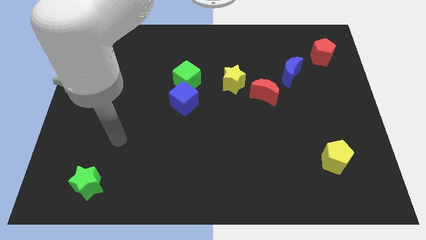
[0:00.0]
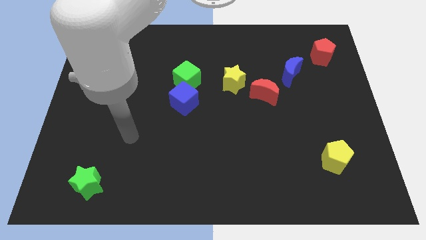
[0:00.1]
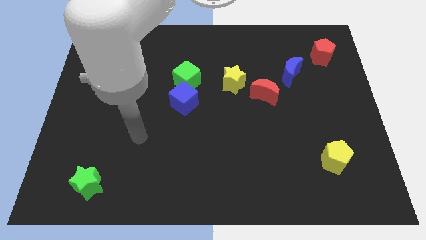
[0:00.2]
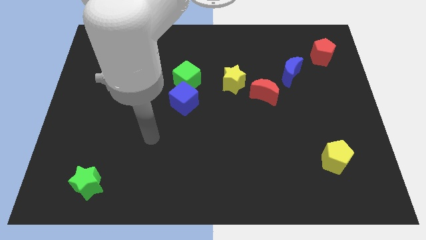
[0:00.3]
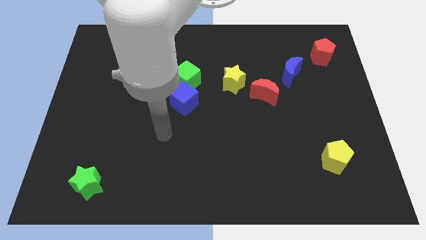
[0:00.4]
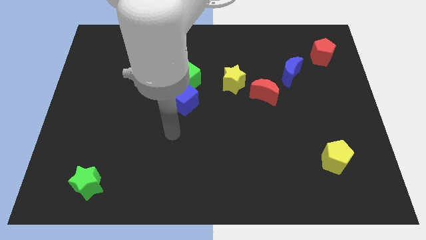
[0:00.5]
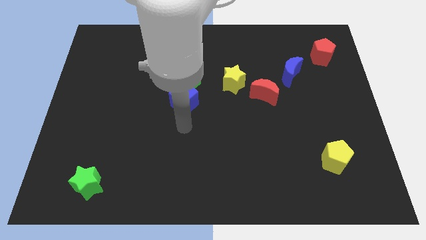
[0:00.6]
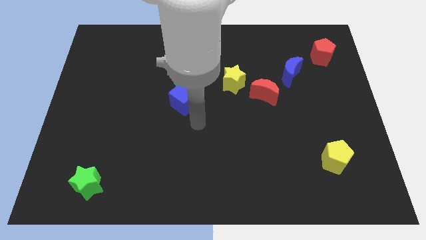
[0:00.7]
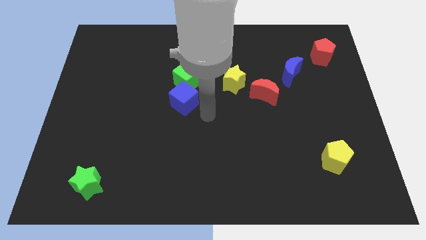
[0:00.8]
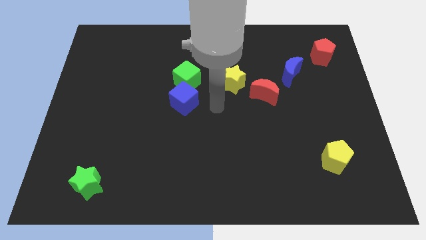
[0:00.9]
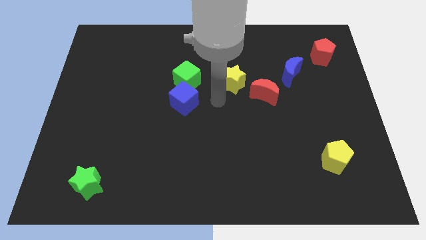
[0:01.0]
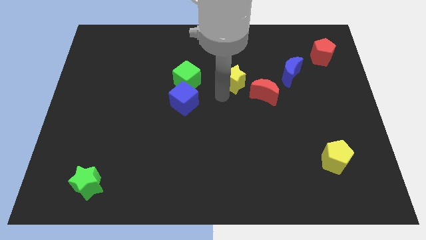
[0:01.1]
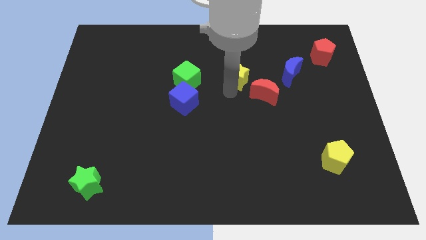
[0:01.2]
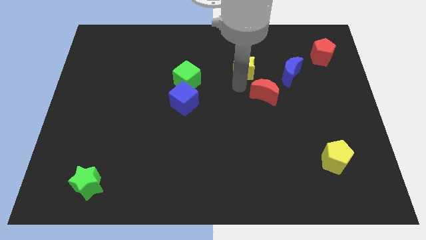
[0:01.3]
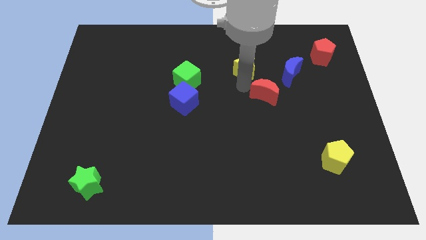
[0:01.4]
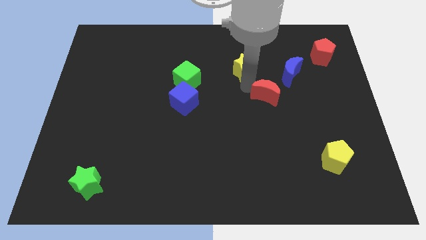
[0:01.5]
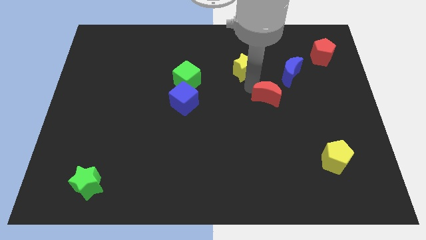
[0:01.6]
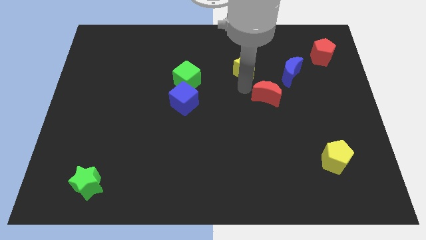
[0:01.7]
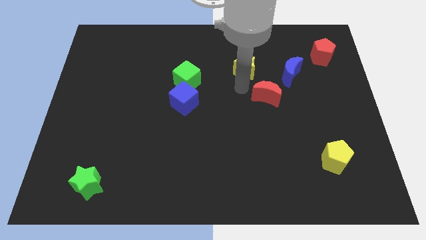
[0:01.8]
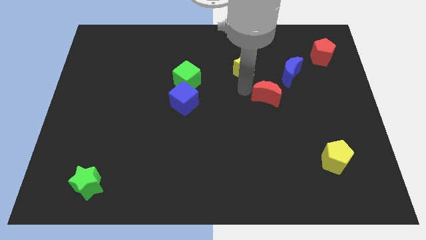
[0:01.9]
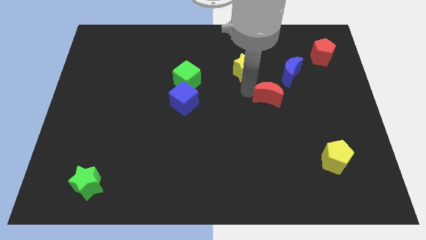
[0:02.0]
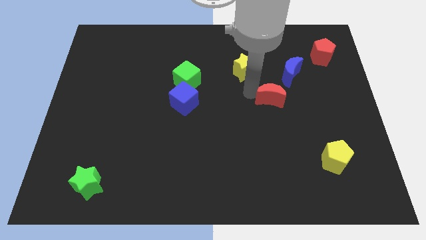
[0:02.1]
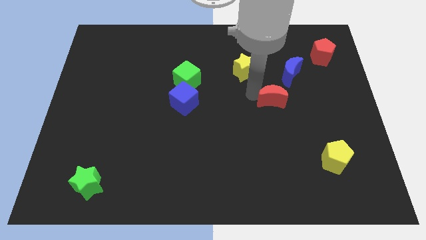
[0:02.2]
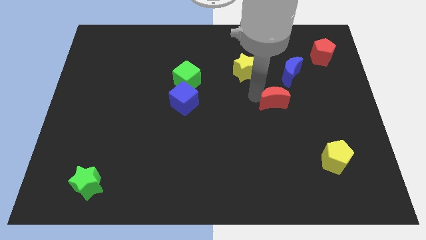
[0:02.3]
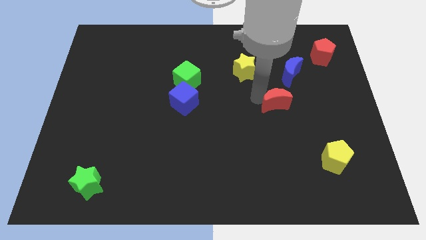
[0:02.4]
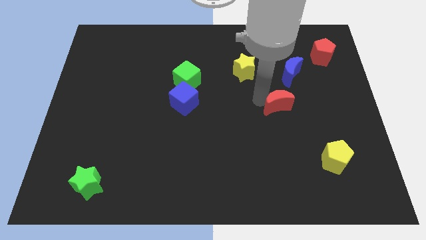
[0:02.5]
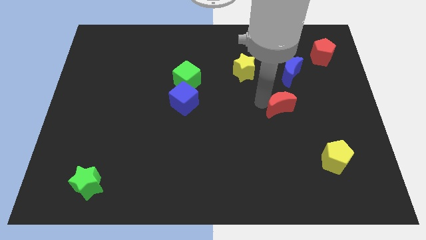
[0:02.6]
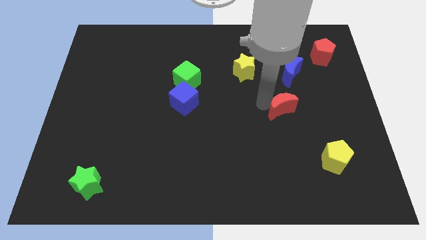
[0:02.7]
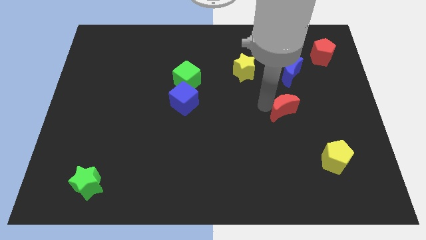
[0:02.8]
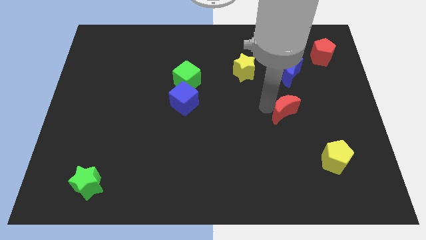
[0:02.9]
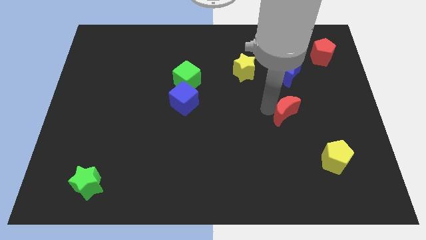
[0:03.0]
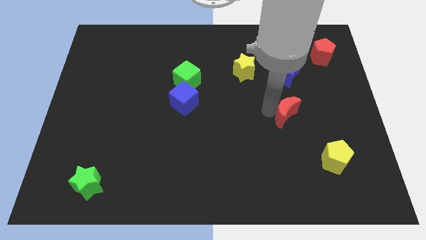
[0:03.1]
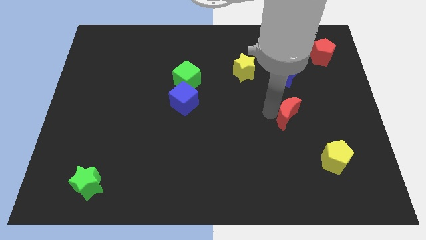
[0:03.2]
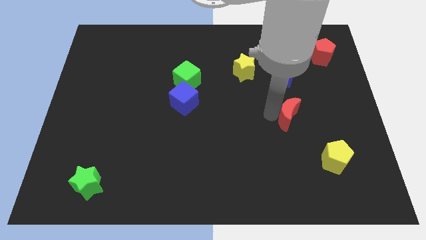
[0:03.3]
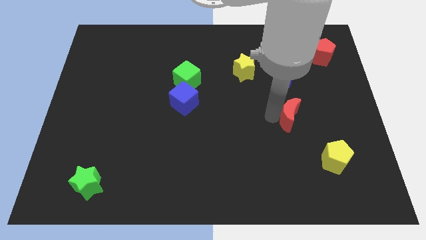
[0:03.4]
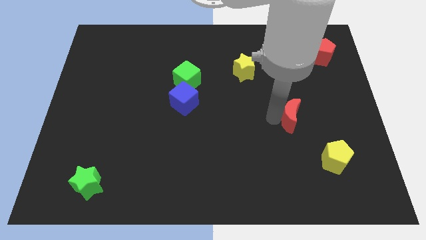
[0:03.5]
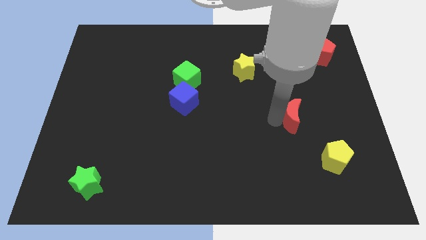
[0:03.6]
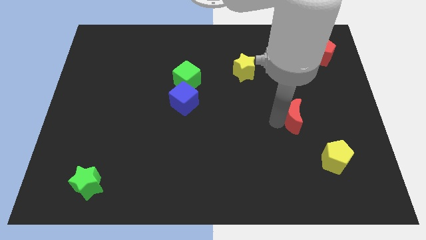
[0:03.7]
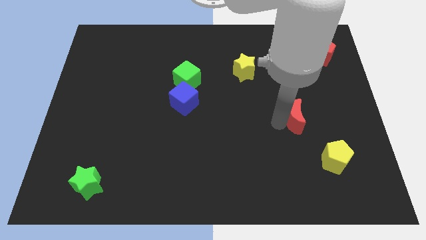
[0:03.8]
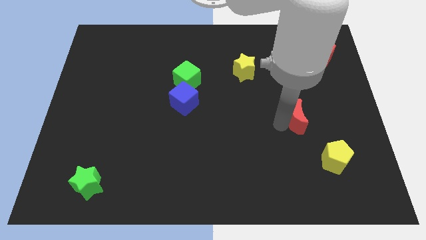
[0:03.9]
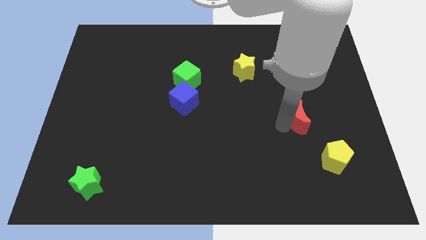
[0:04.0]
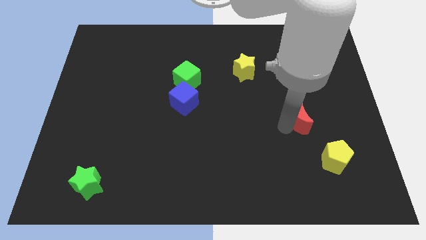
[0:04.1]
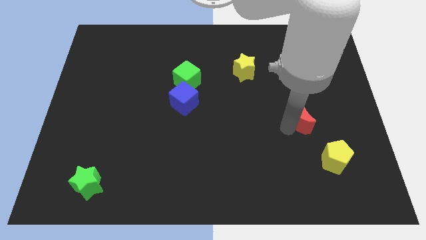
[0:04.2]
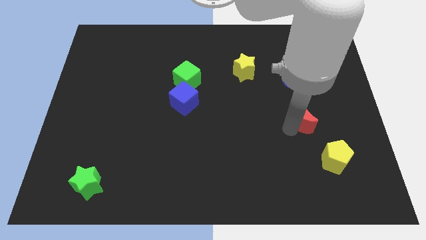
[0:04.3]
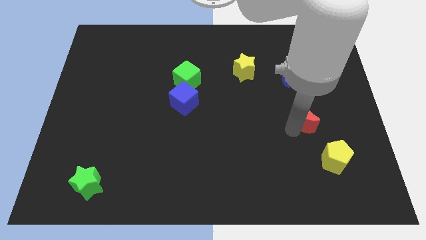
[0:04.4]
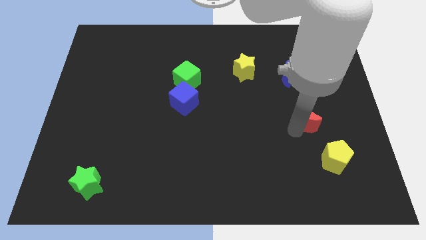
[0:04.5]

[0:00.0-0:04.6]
slide the red moon to the top side of the yellow pentagon

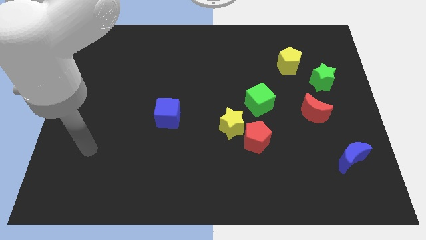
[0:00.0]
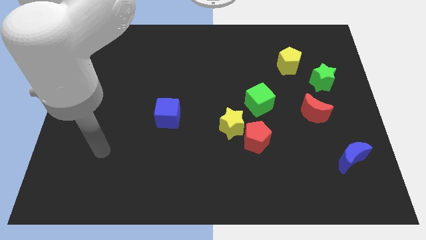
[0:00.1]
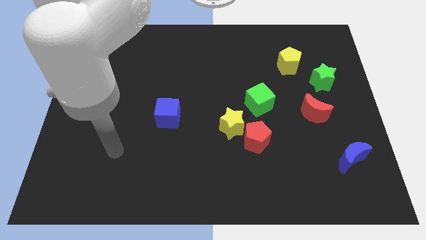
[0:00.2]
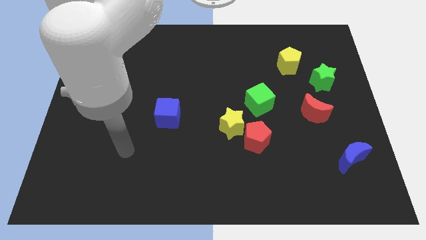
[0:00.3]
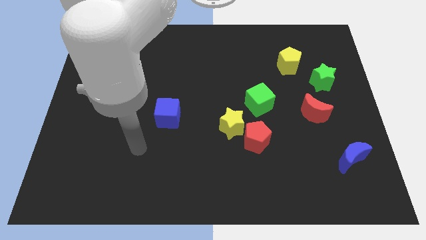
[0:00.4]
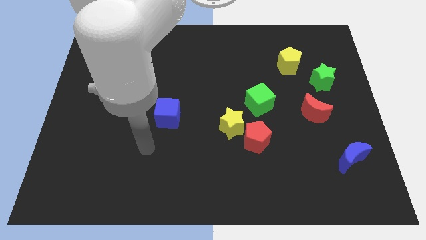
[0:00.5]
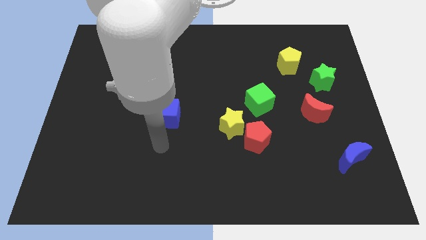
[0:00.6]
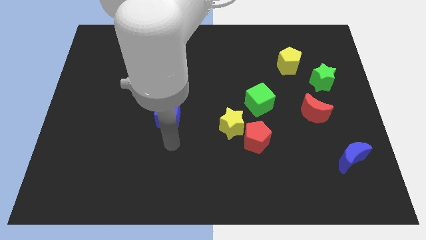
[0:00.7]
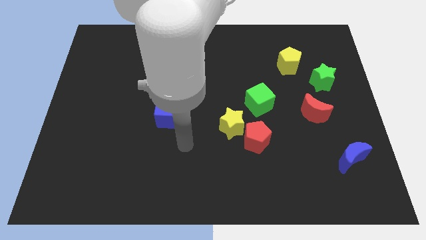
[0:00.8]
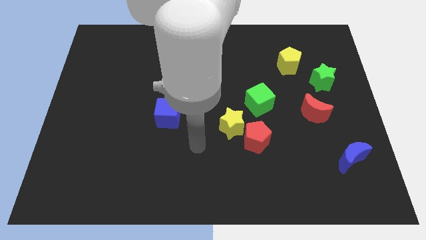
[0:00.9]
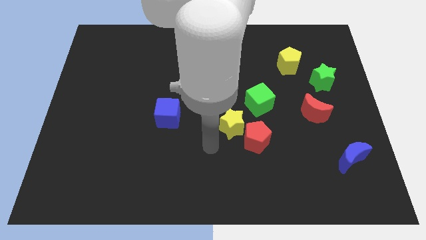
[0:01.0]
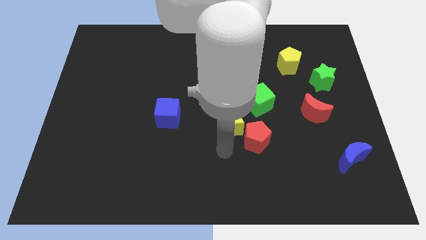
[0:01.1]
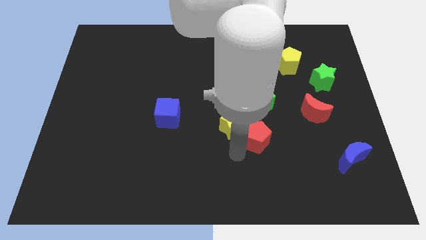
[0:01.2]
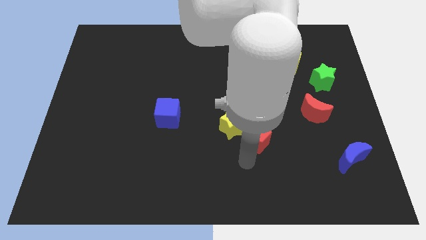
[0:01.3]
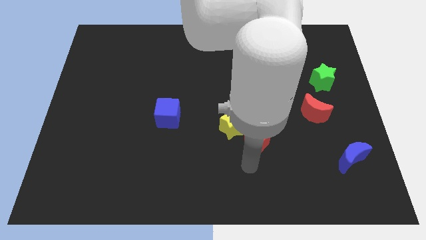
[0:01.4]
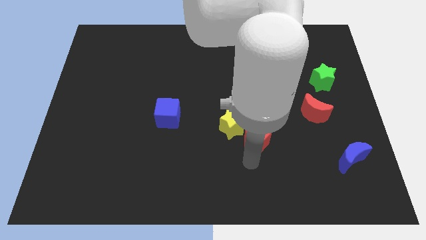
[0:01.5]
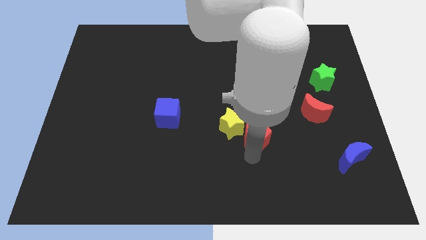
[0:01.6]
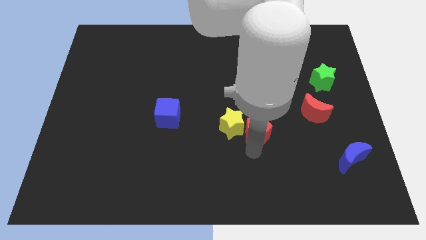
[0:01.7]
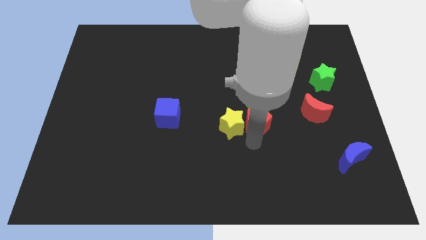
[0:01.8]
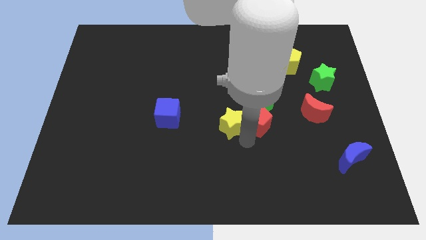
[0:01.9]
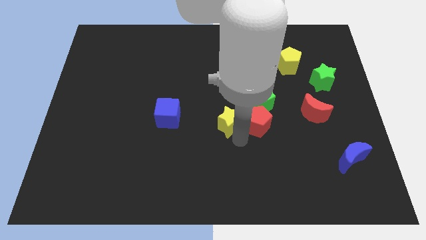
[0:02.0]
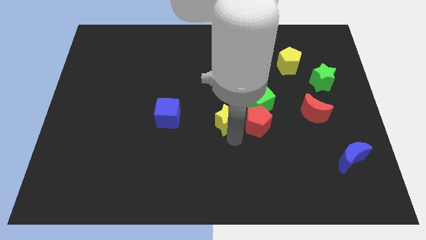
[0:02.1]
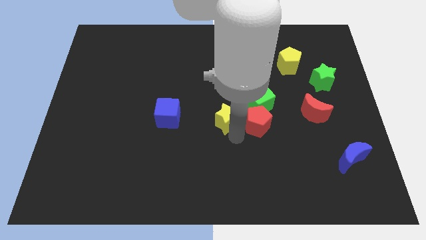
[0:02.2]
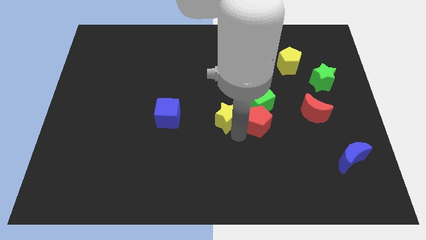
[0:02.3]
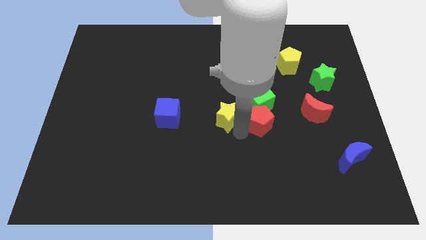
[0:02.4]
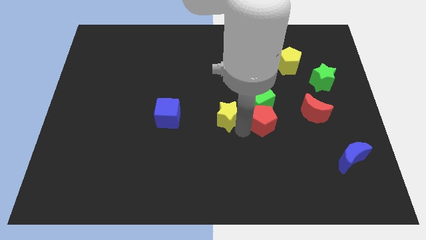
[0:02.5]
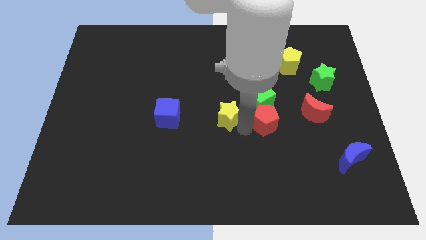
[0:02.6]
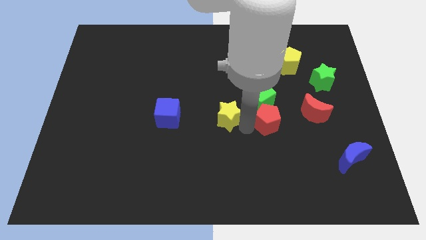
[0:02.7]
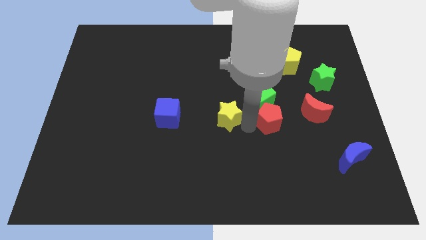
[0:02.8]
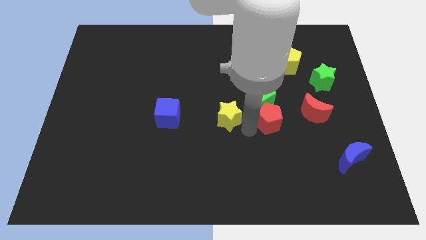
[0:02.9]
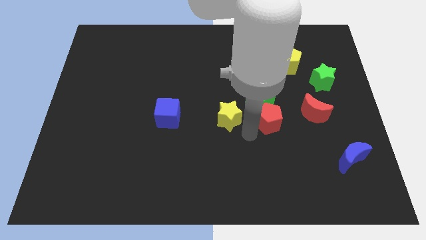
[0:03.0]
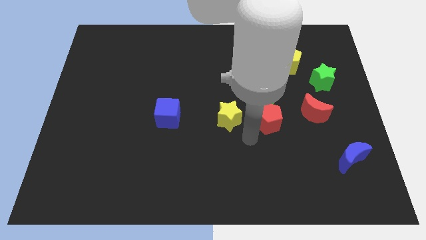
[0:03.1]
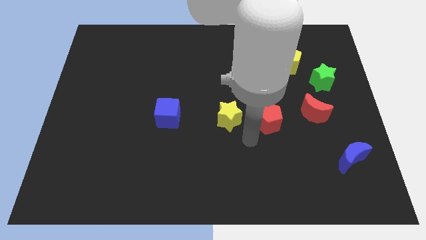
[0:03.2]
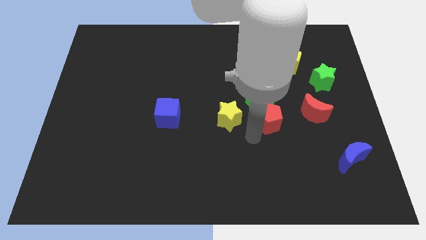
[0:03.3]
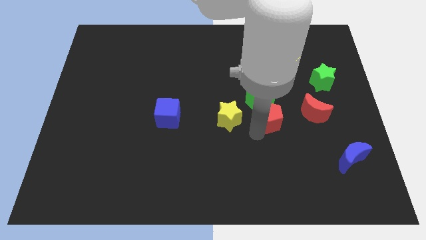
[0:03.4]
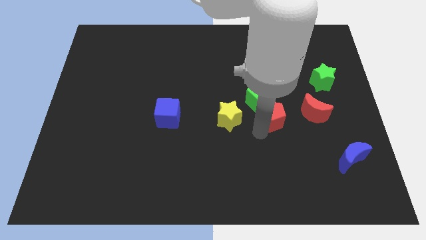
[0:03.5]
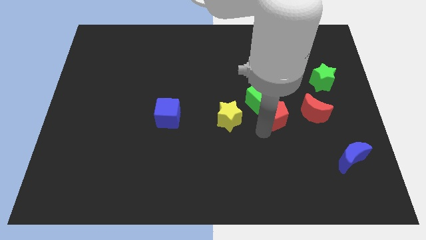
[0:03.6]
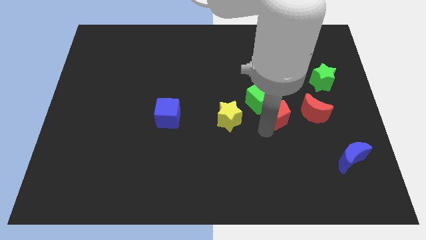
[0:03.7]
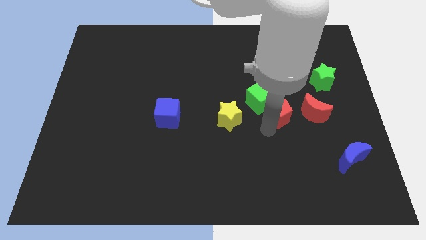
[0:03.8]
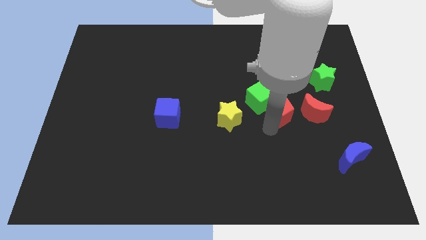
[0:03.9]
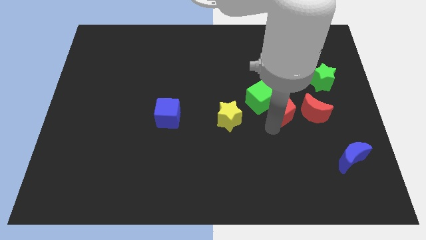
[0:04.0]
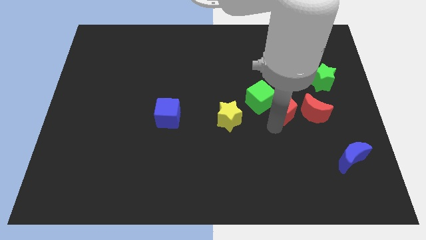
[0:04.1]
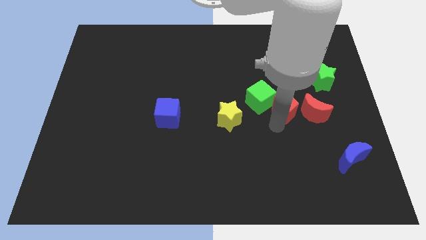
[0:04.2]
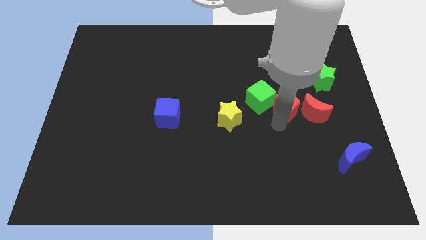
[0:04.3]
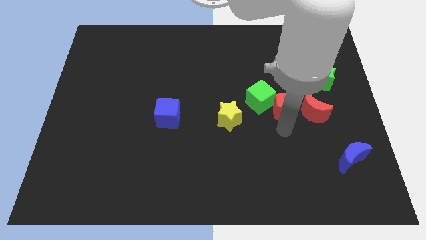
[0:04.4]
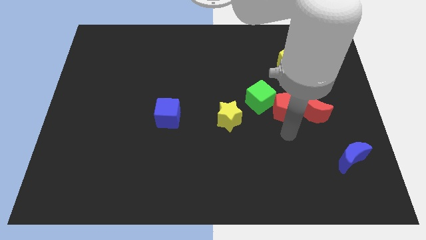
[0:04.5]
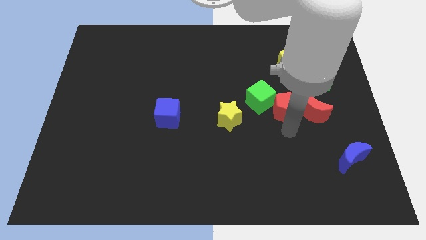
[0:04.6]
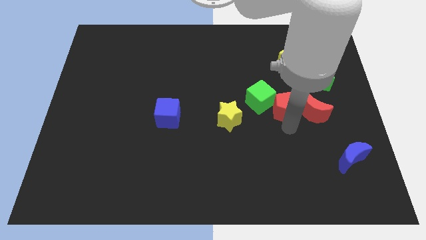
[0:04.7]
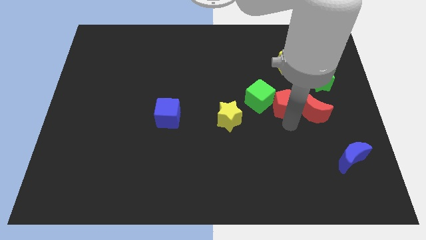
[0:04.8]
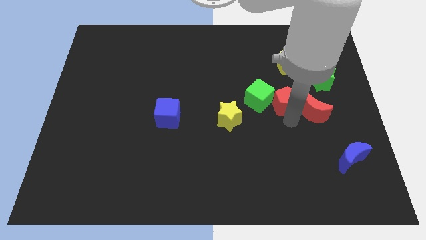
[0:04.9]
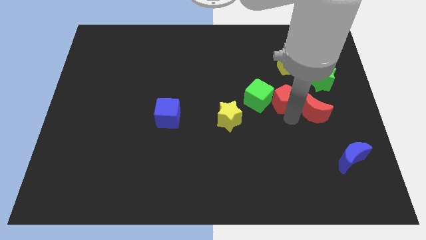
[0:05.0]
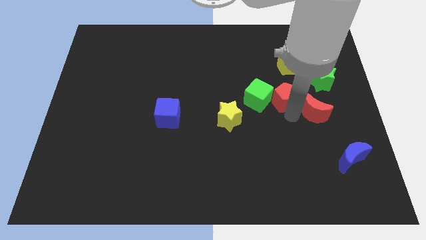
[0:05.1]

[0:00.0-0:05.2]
slide the red pentagon to the top right side of the green cube
